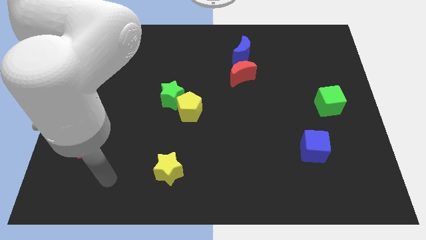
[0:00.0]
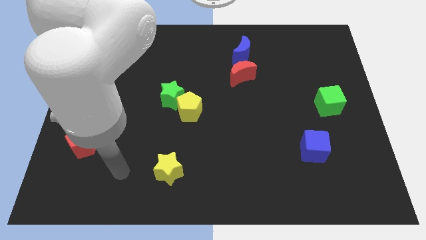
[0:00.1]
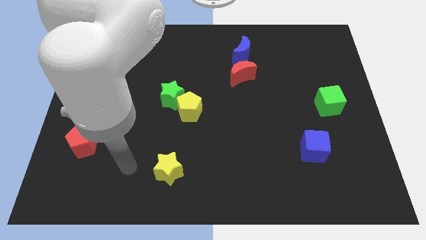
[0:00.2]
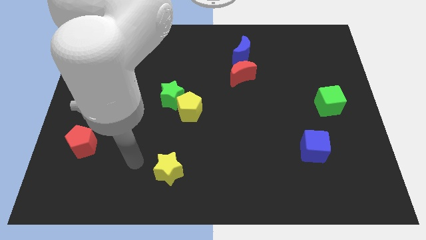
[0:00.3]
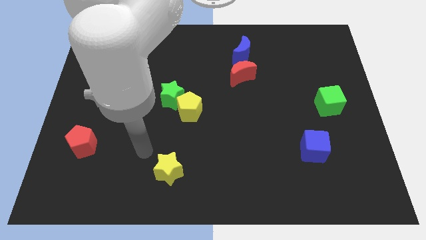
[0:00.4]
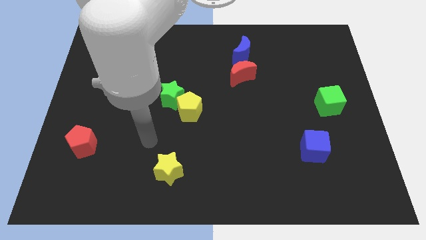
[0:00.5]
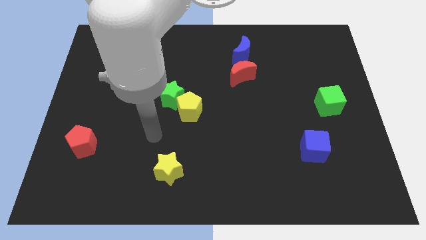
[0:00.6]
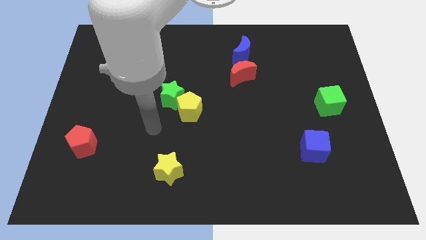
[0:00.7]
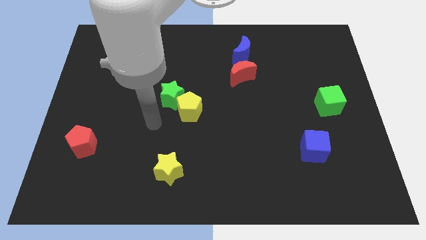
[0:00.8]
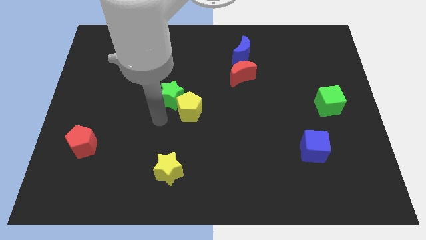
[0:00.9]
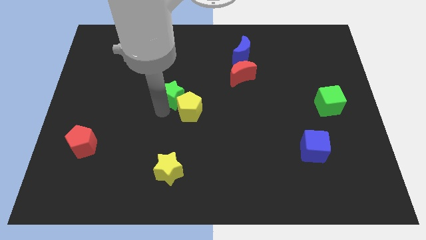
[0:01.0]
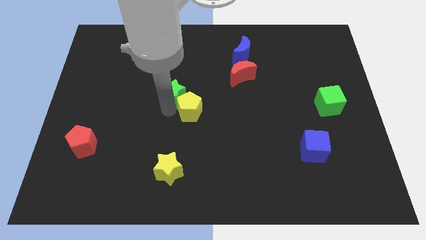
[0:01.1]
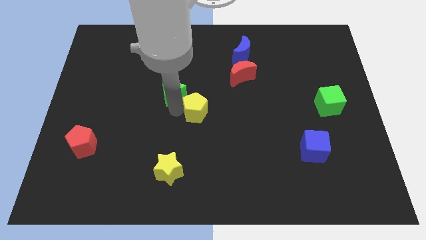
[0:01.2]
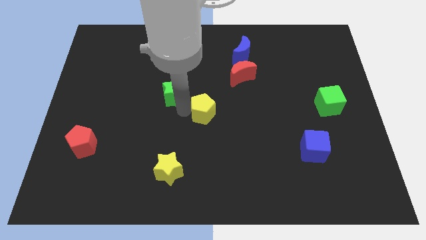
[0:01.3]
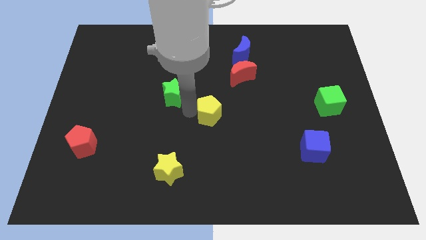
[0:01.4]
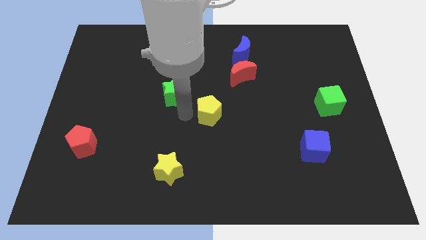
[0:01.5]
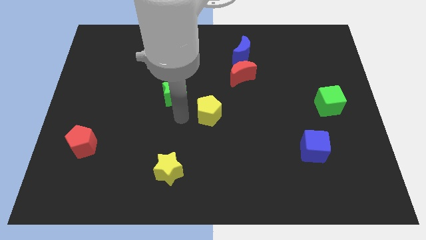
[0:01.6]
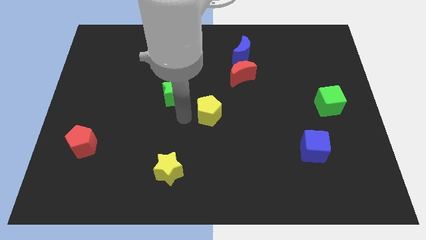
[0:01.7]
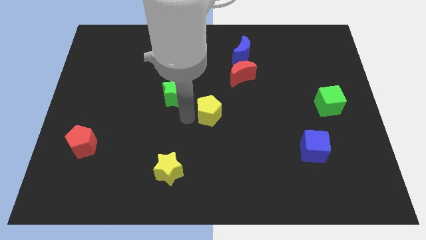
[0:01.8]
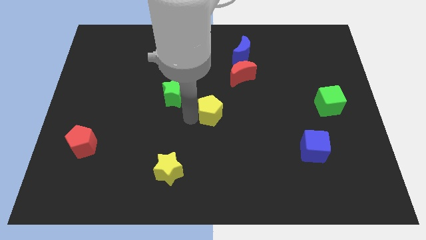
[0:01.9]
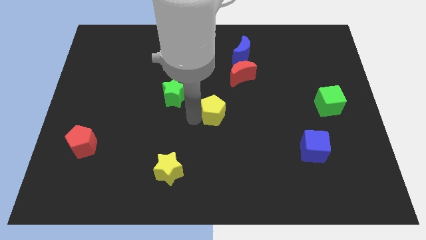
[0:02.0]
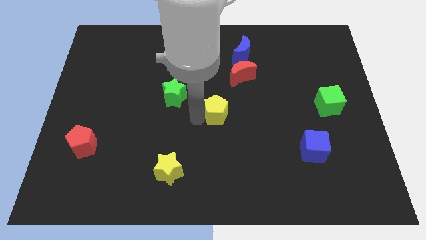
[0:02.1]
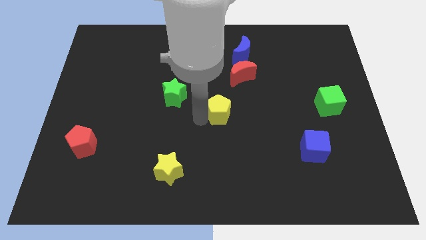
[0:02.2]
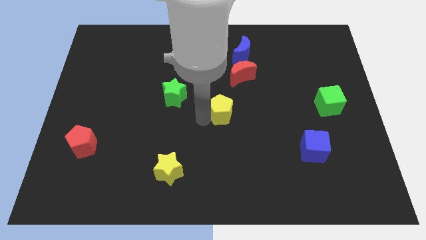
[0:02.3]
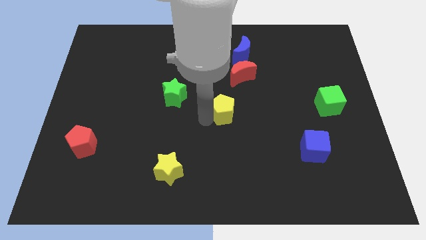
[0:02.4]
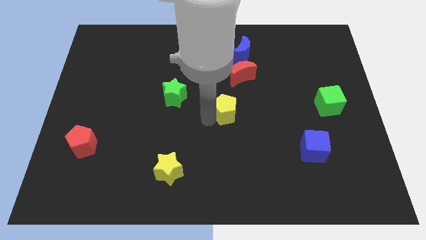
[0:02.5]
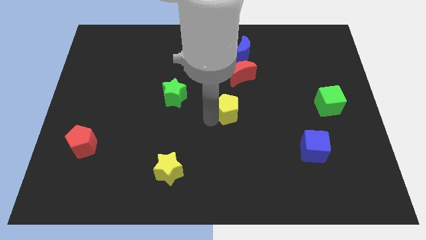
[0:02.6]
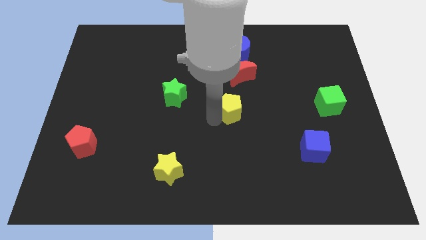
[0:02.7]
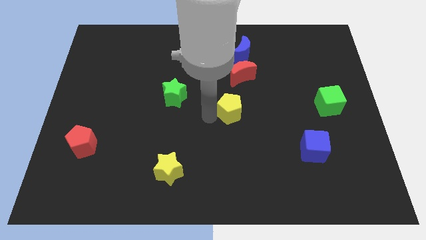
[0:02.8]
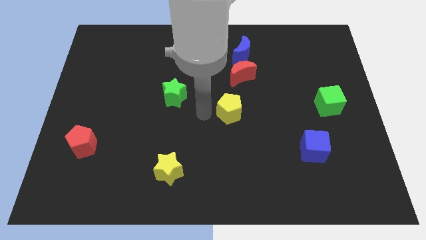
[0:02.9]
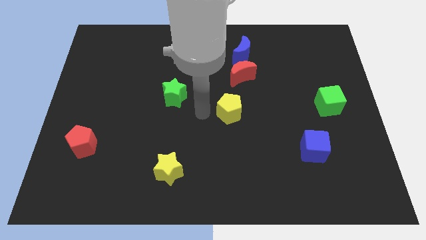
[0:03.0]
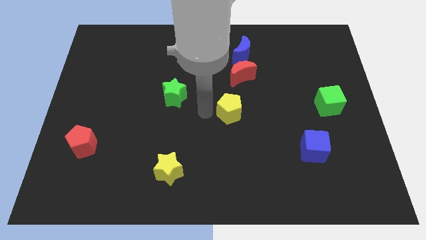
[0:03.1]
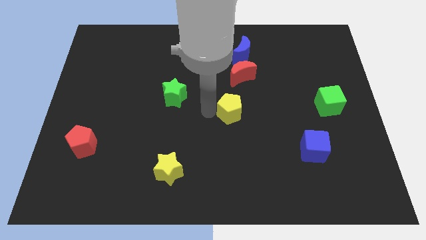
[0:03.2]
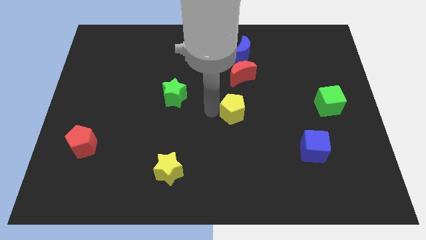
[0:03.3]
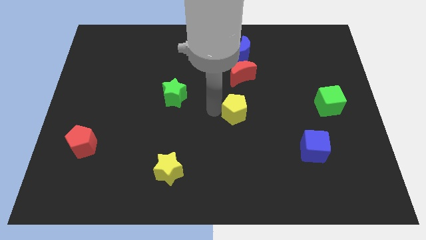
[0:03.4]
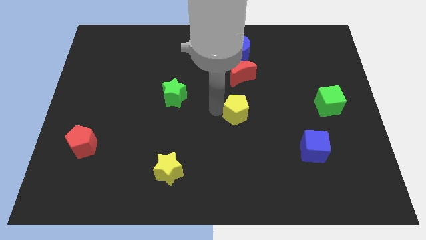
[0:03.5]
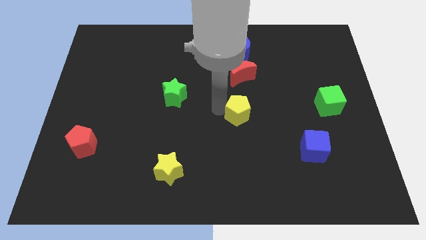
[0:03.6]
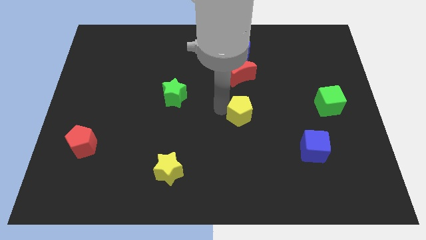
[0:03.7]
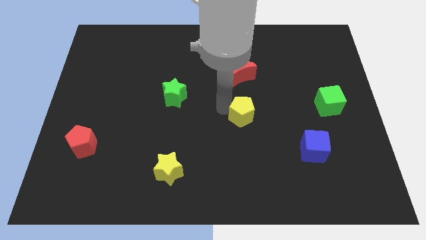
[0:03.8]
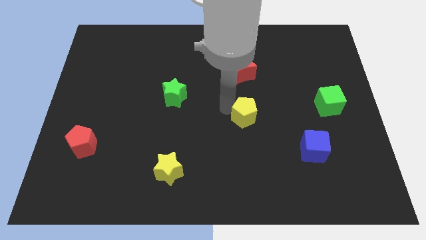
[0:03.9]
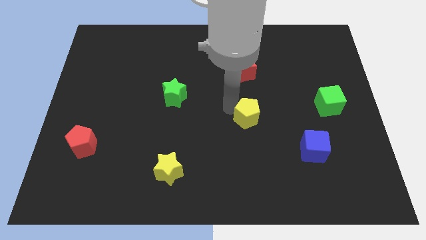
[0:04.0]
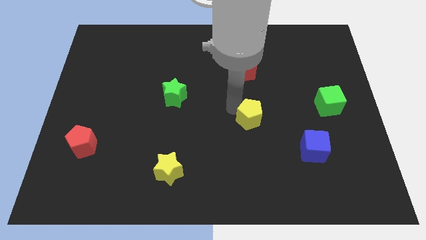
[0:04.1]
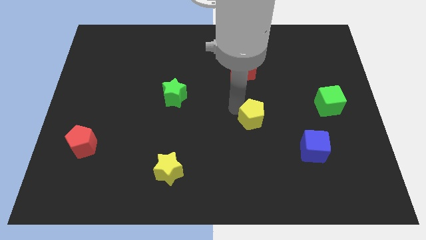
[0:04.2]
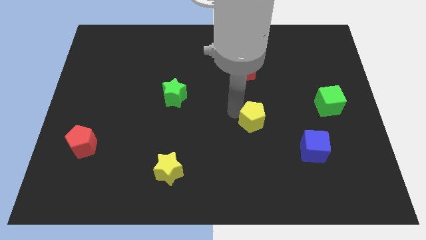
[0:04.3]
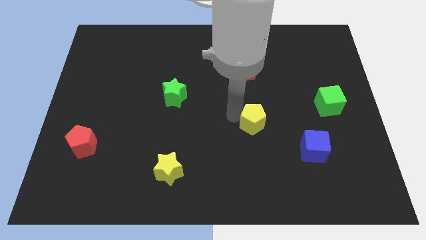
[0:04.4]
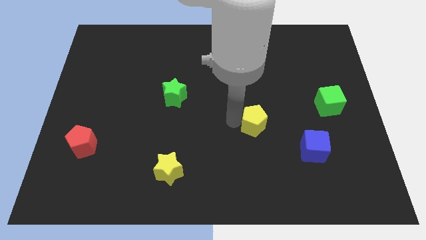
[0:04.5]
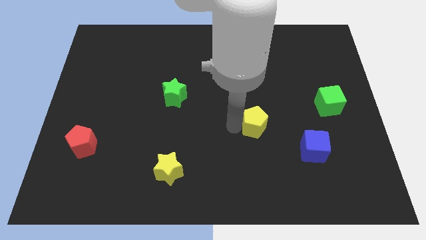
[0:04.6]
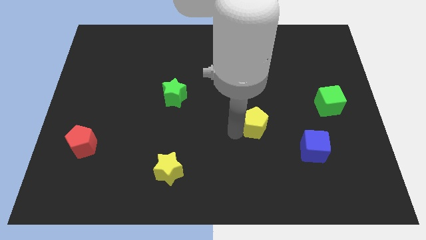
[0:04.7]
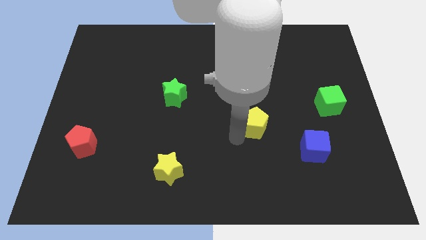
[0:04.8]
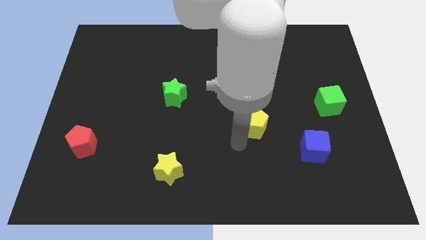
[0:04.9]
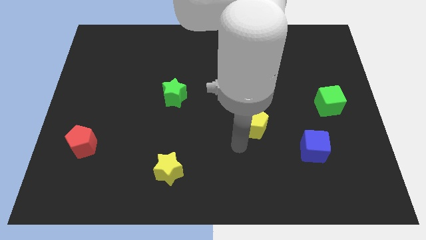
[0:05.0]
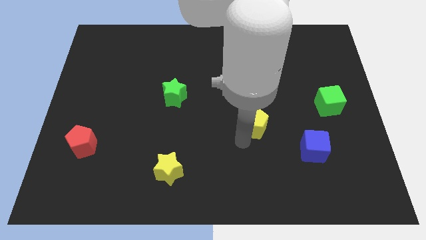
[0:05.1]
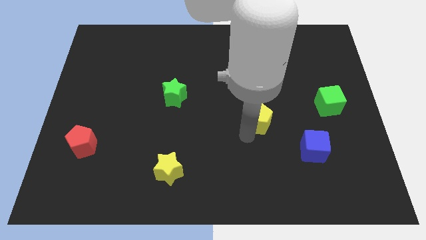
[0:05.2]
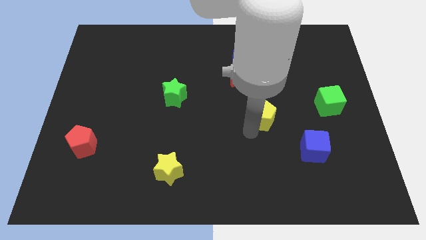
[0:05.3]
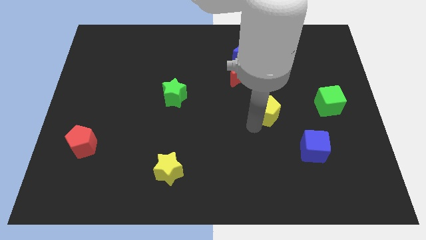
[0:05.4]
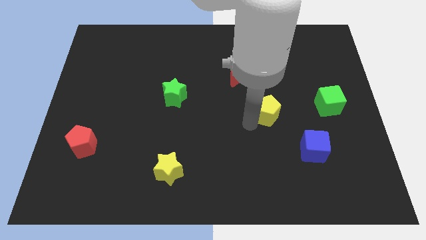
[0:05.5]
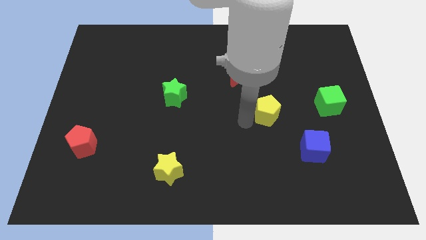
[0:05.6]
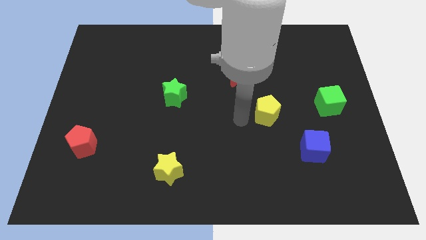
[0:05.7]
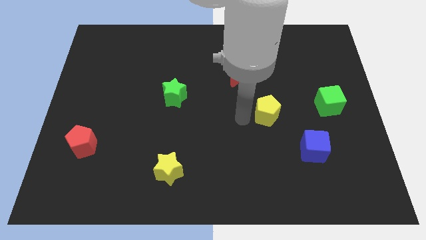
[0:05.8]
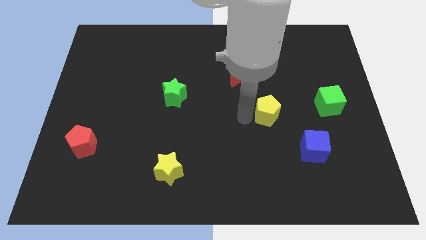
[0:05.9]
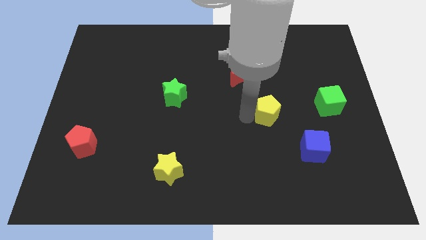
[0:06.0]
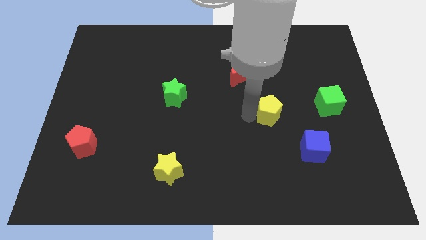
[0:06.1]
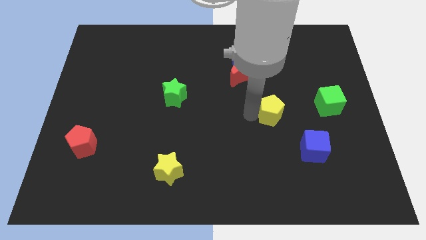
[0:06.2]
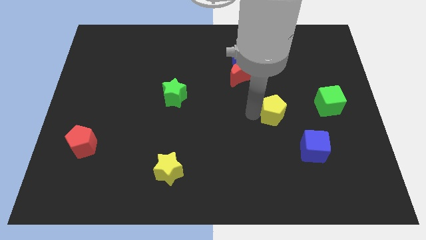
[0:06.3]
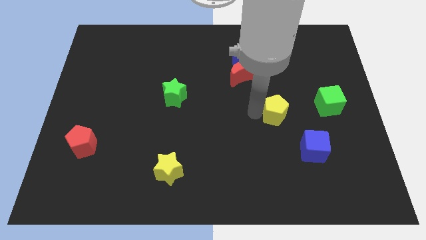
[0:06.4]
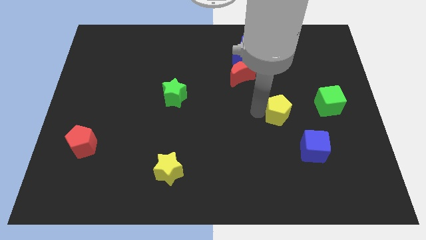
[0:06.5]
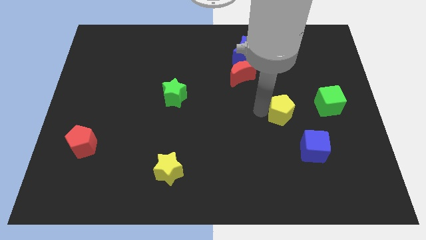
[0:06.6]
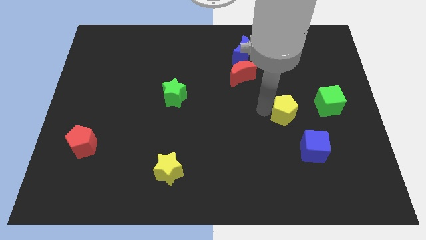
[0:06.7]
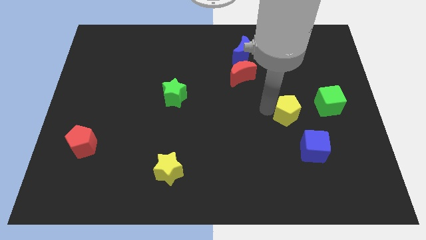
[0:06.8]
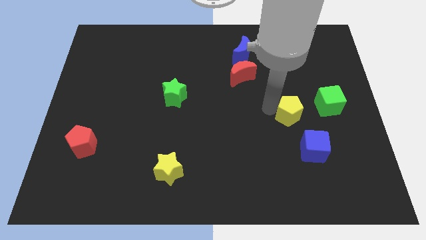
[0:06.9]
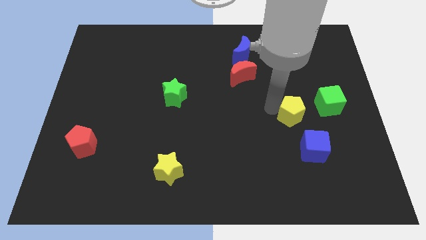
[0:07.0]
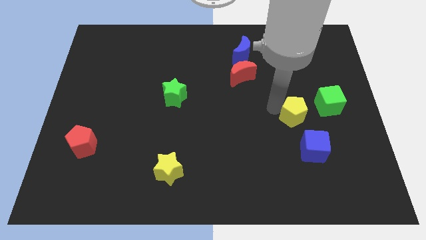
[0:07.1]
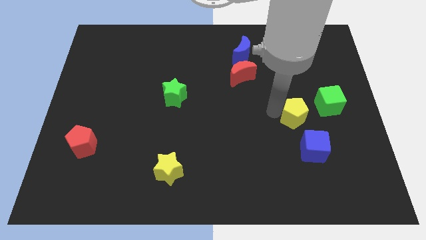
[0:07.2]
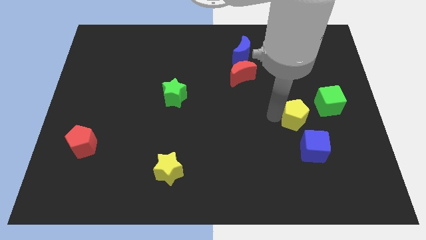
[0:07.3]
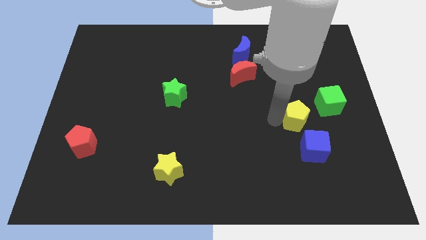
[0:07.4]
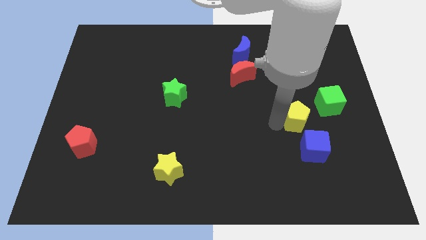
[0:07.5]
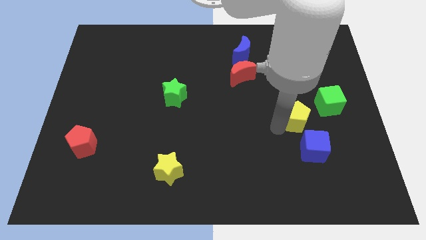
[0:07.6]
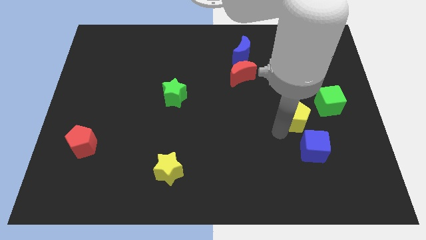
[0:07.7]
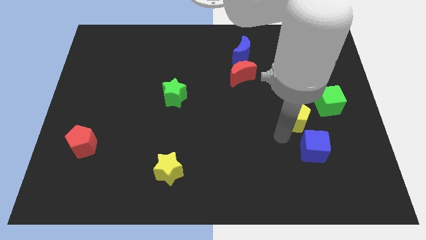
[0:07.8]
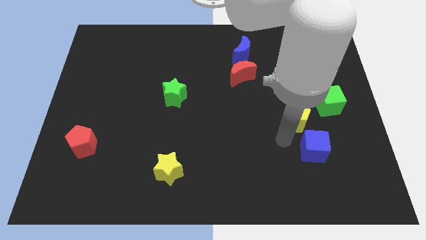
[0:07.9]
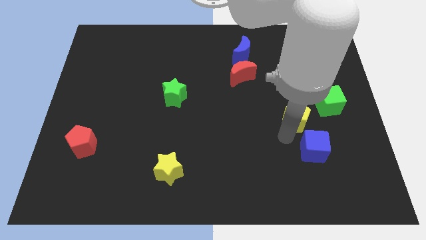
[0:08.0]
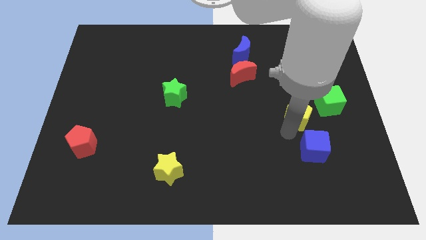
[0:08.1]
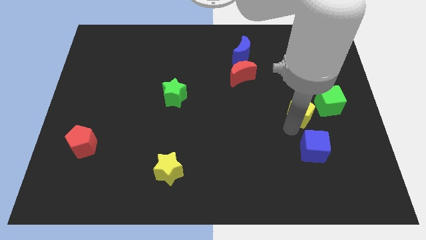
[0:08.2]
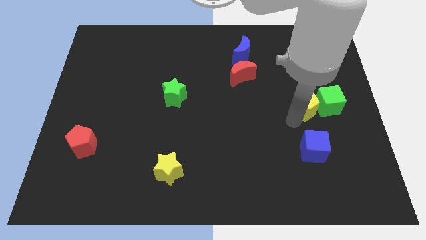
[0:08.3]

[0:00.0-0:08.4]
put the yellow pentagon close to the green cube
